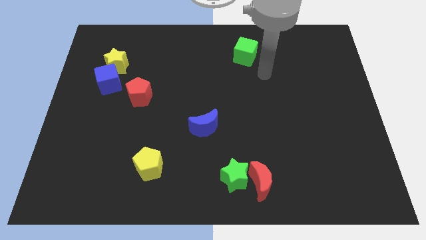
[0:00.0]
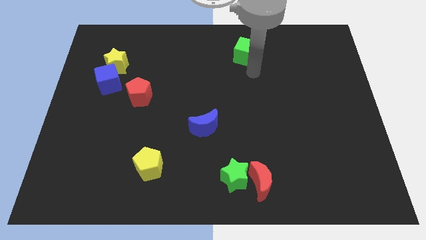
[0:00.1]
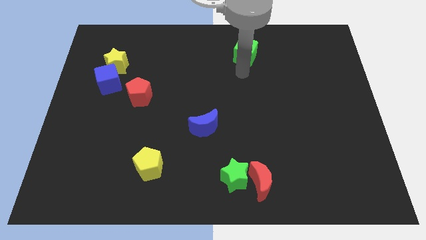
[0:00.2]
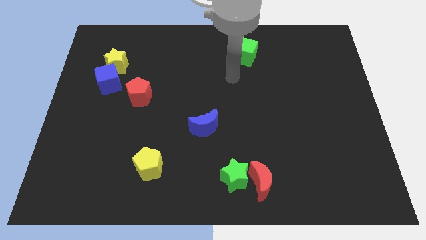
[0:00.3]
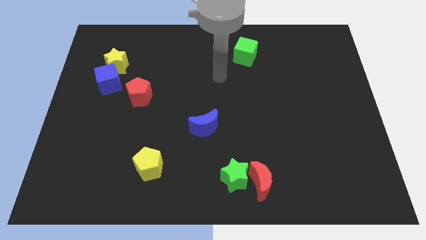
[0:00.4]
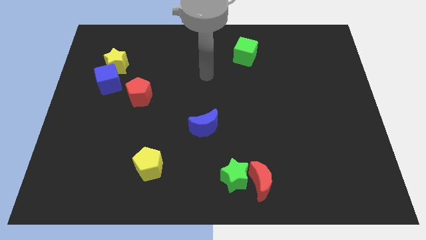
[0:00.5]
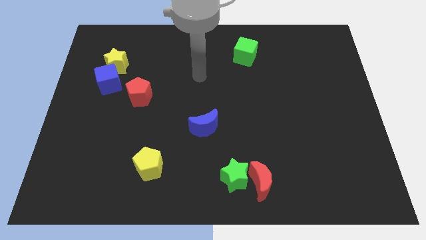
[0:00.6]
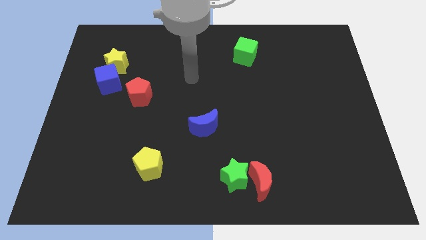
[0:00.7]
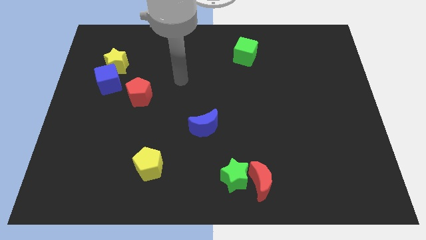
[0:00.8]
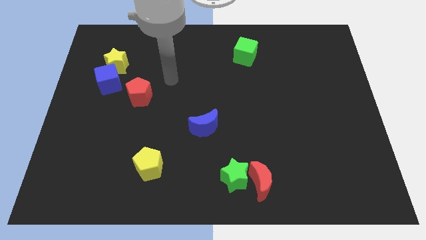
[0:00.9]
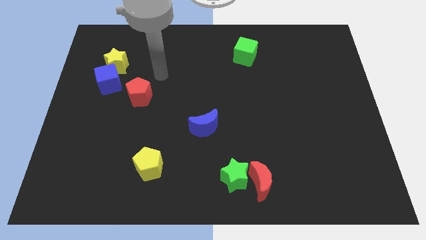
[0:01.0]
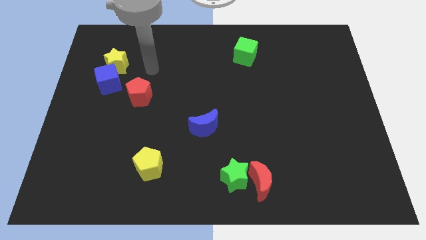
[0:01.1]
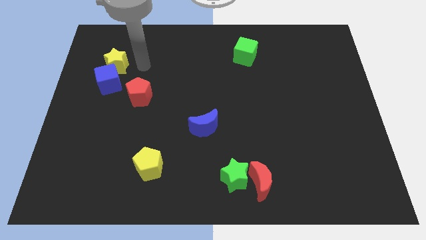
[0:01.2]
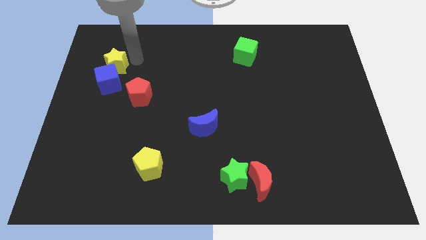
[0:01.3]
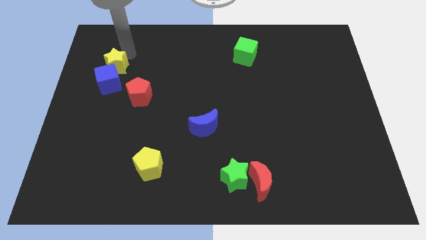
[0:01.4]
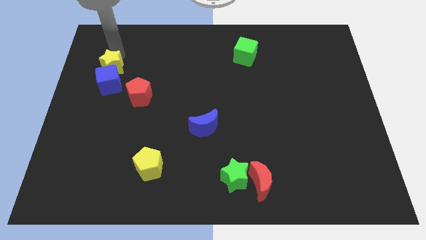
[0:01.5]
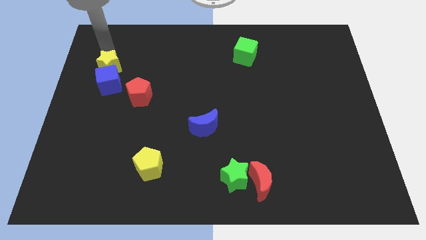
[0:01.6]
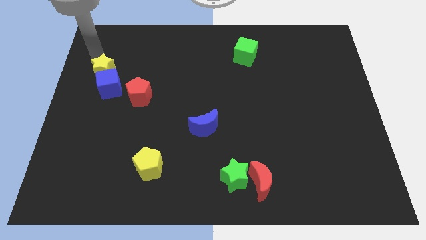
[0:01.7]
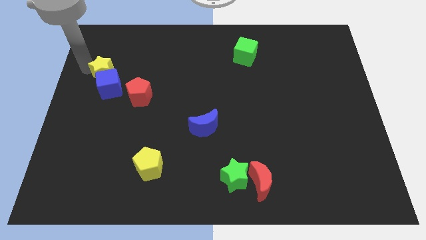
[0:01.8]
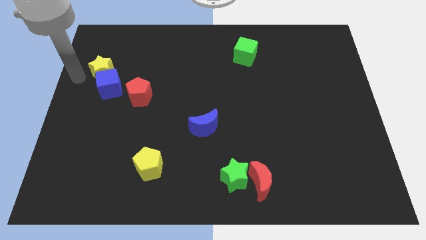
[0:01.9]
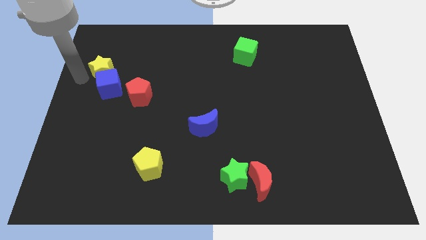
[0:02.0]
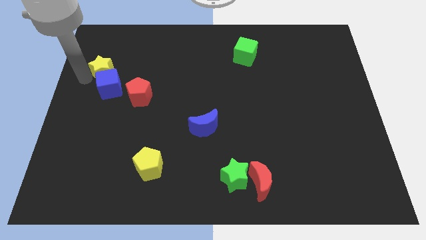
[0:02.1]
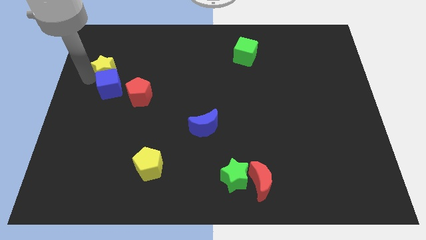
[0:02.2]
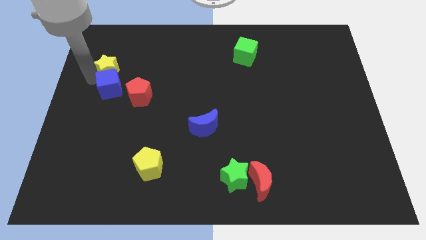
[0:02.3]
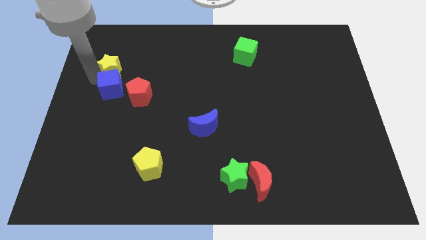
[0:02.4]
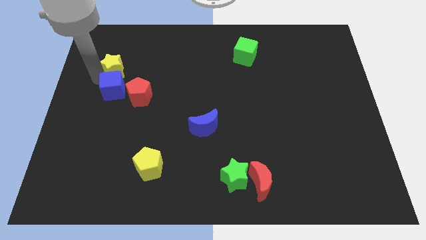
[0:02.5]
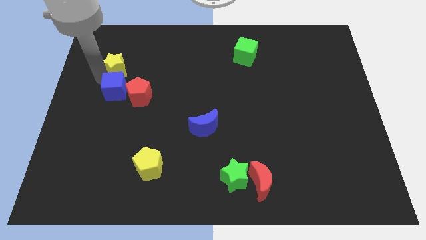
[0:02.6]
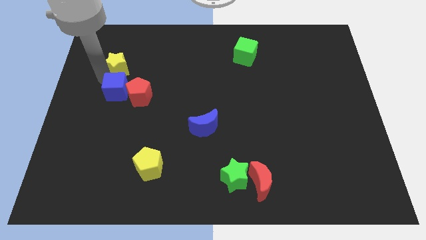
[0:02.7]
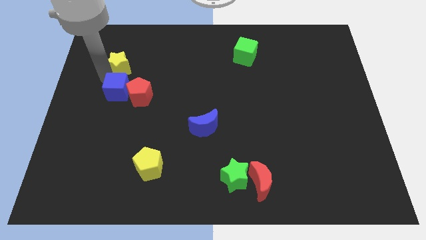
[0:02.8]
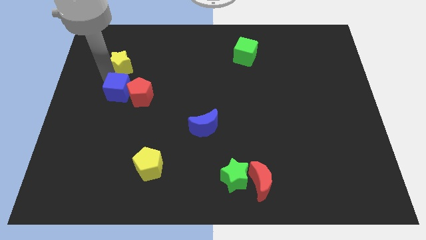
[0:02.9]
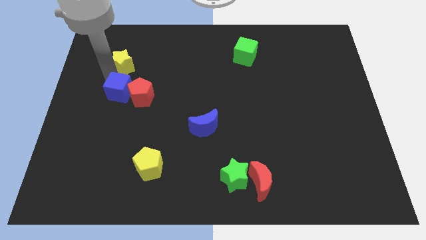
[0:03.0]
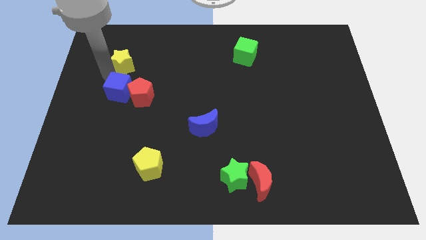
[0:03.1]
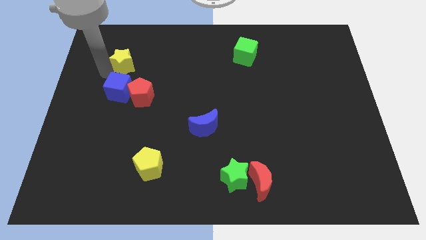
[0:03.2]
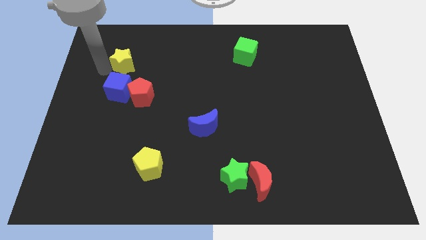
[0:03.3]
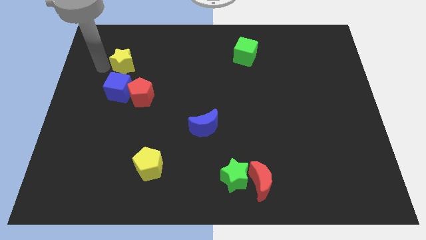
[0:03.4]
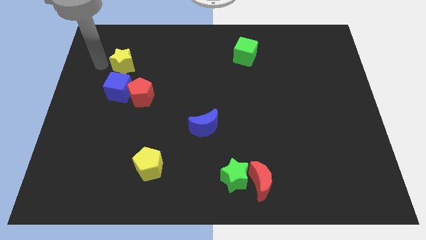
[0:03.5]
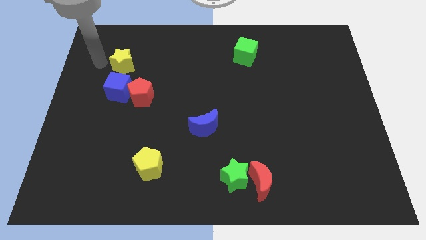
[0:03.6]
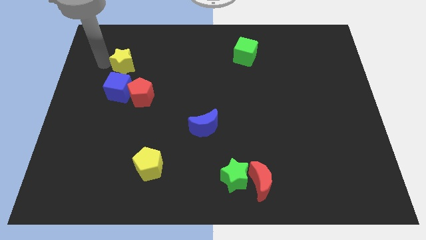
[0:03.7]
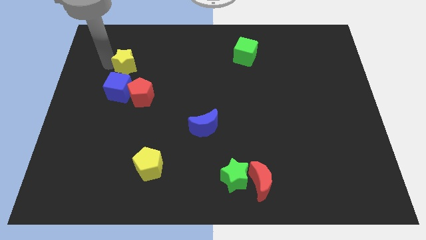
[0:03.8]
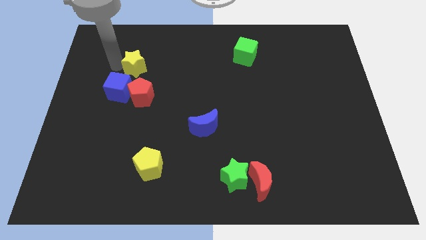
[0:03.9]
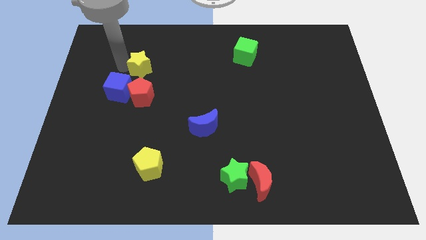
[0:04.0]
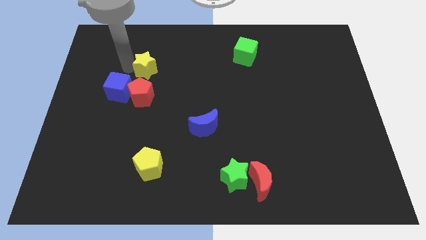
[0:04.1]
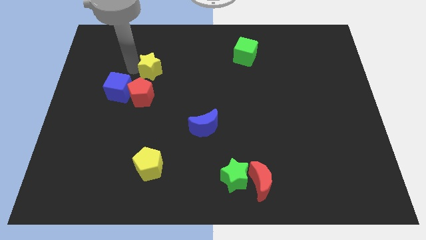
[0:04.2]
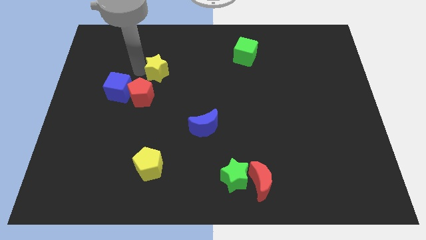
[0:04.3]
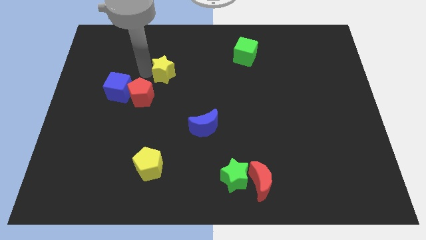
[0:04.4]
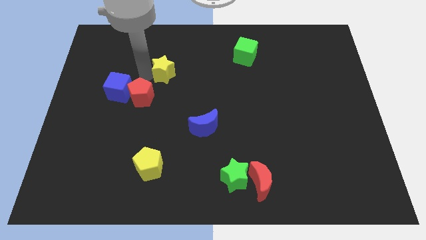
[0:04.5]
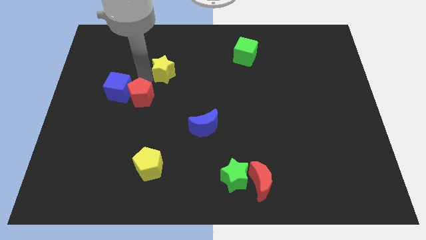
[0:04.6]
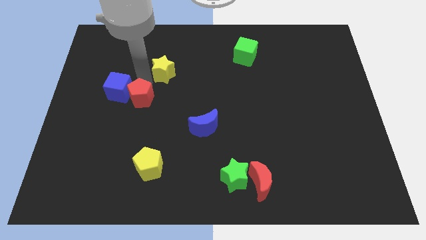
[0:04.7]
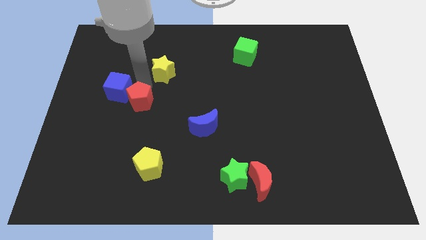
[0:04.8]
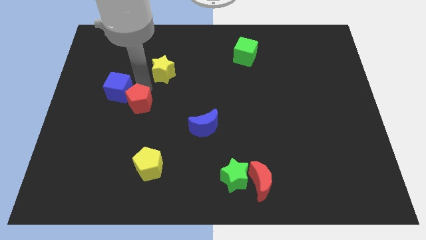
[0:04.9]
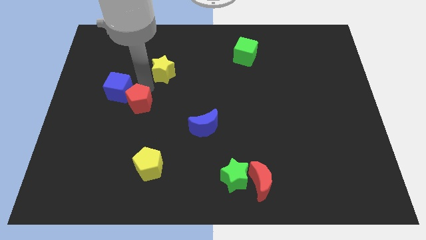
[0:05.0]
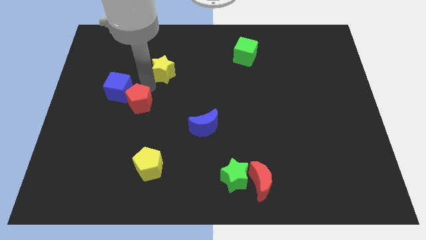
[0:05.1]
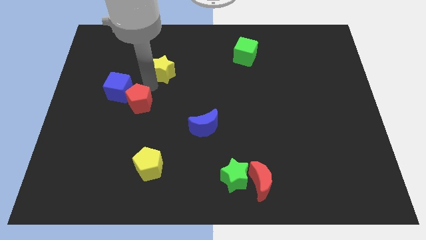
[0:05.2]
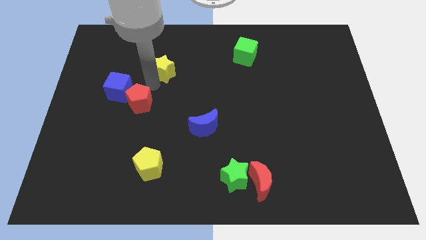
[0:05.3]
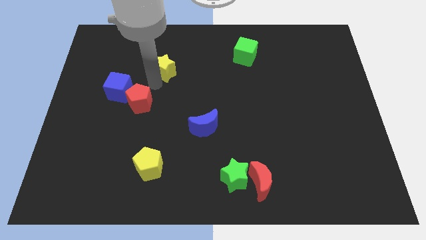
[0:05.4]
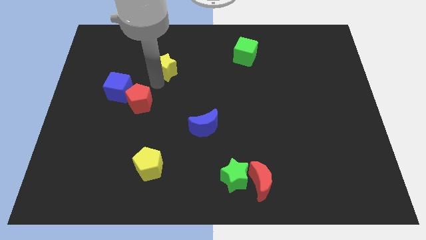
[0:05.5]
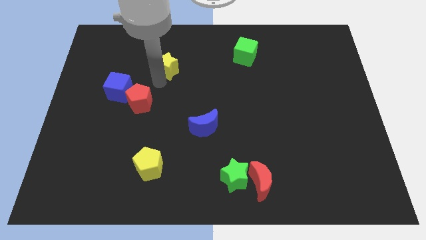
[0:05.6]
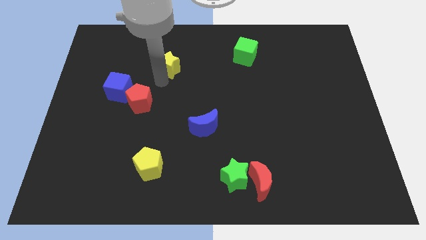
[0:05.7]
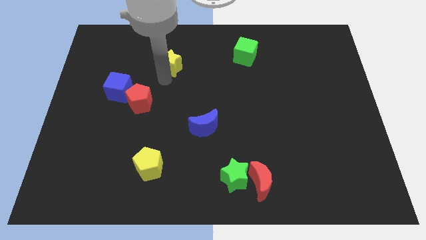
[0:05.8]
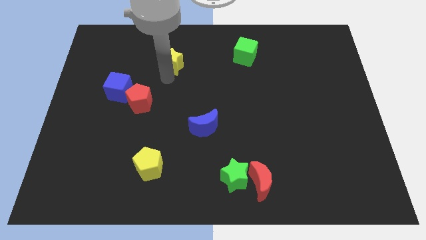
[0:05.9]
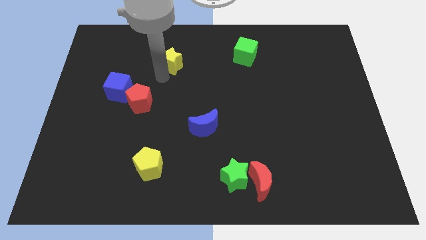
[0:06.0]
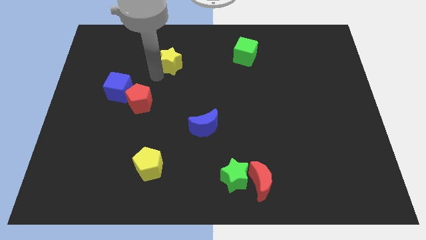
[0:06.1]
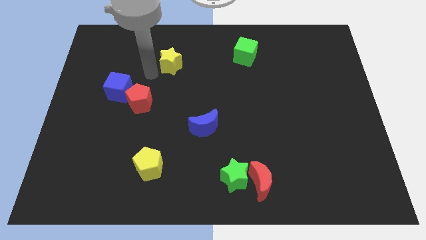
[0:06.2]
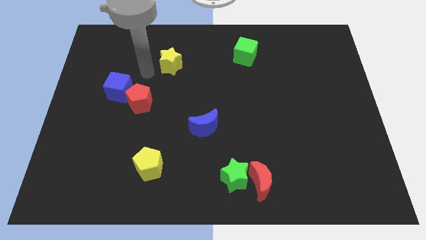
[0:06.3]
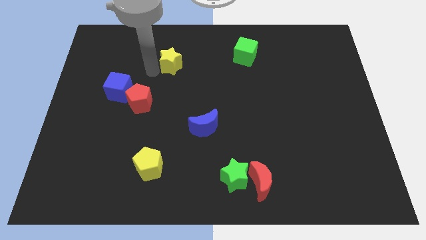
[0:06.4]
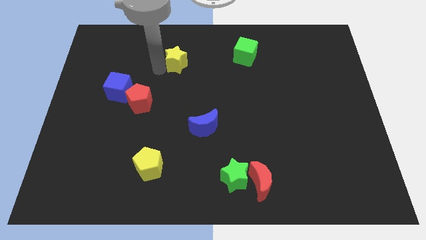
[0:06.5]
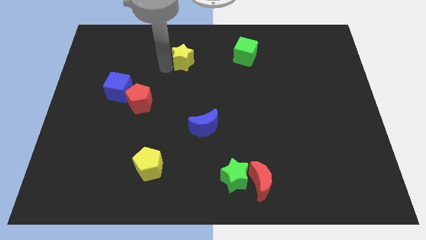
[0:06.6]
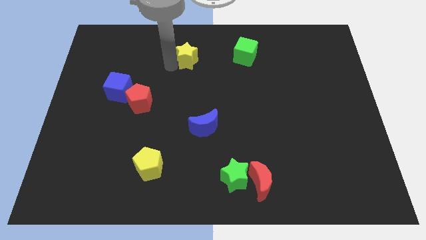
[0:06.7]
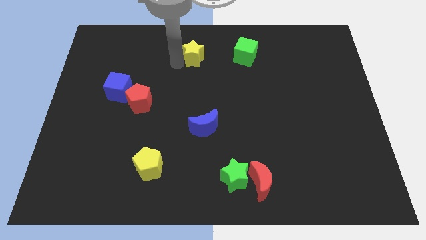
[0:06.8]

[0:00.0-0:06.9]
slide the yellow star to the right

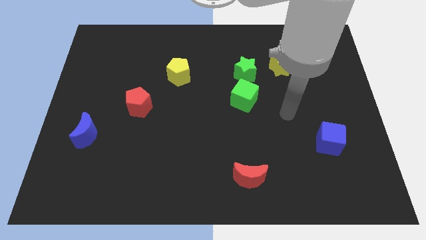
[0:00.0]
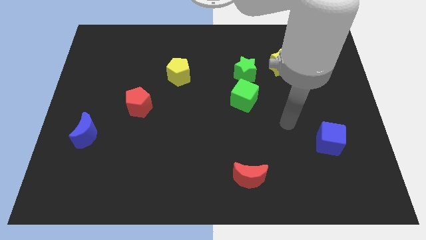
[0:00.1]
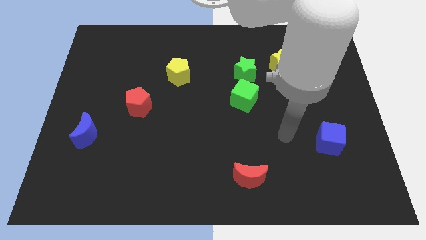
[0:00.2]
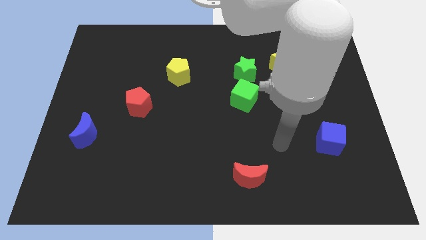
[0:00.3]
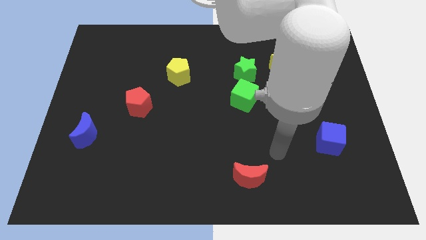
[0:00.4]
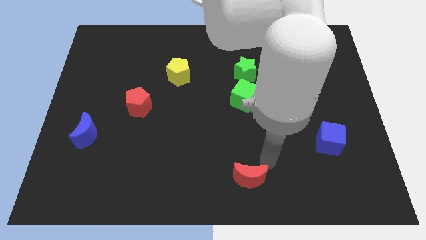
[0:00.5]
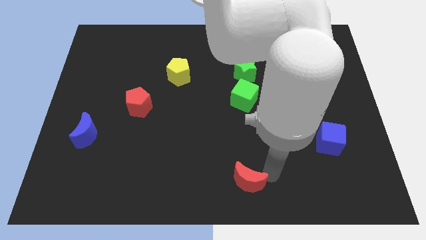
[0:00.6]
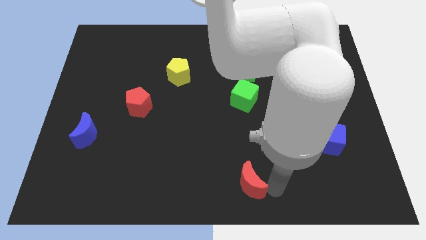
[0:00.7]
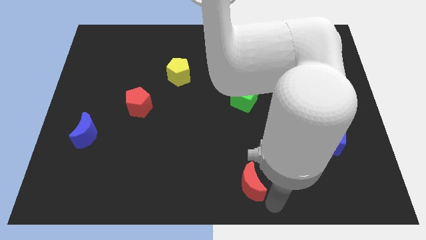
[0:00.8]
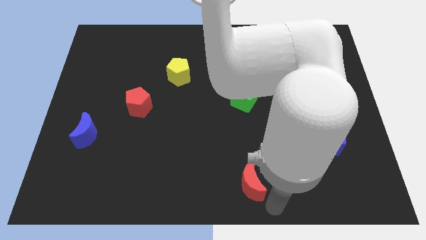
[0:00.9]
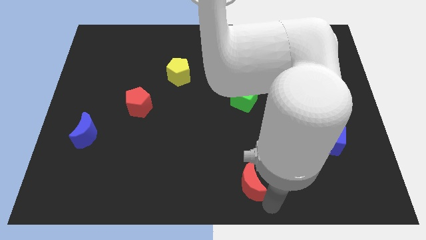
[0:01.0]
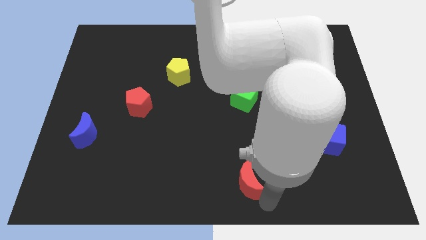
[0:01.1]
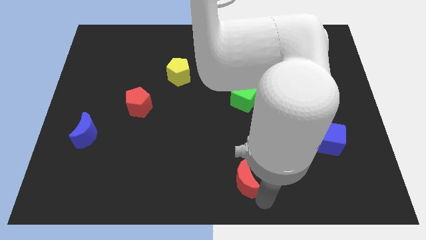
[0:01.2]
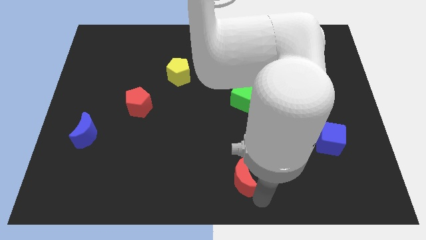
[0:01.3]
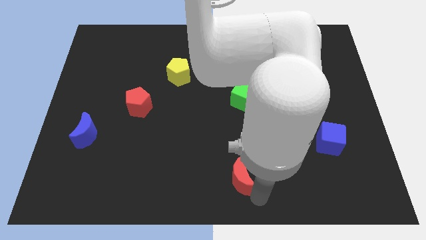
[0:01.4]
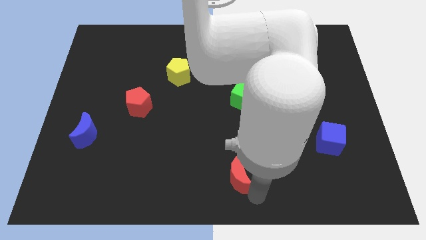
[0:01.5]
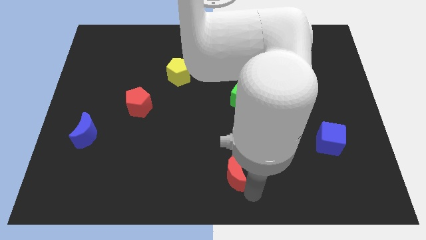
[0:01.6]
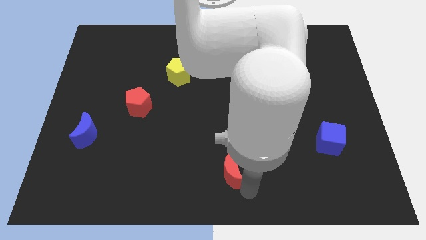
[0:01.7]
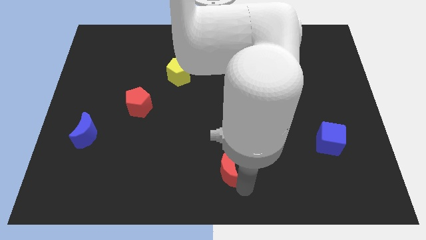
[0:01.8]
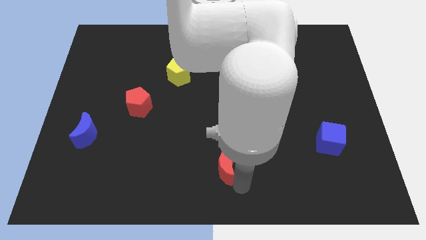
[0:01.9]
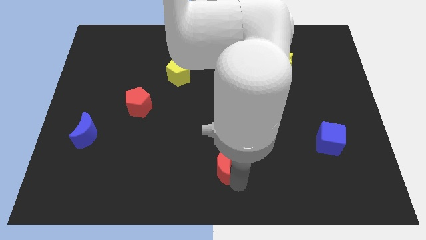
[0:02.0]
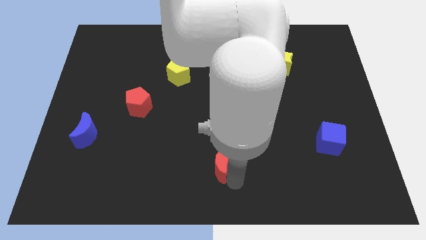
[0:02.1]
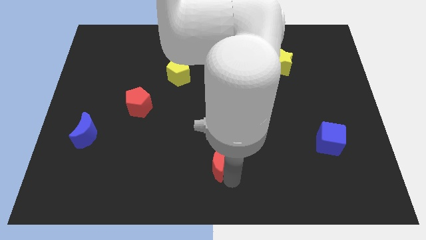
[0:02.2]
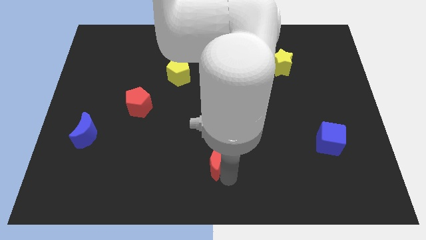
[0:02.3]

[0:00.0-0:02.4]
slightly move the red moon upwards and then to the left
